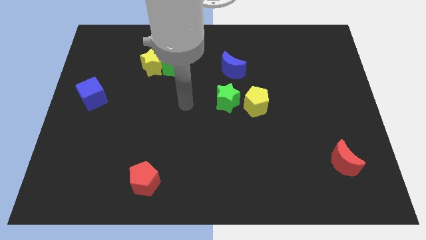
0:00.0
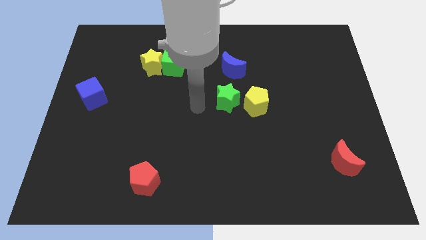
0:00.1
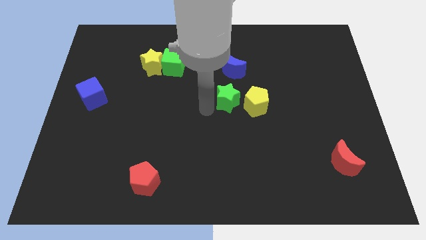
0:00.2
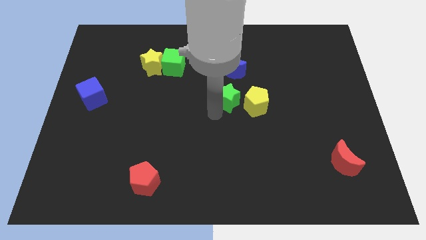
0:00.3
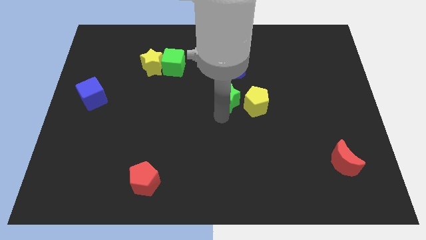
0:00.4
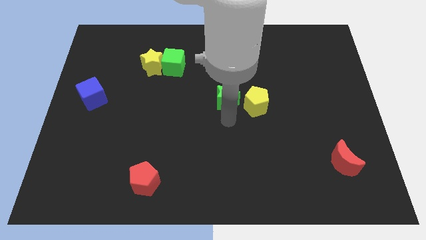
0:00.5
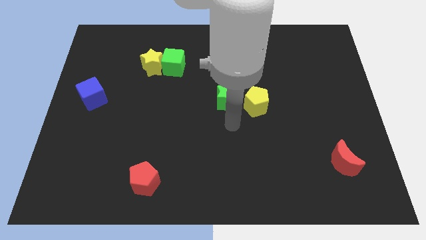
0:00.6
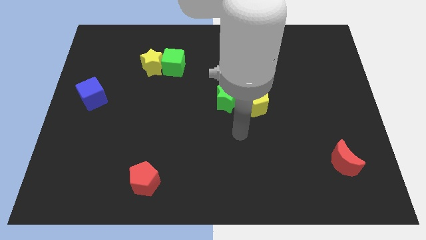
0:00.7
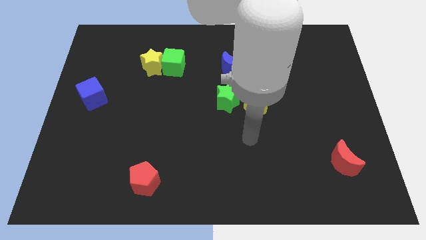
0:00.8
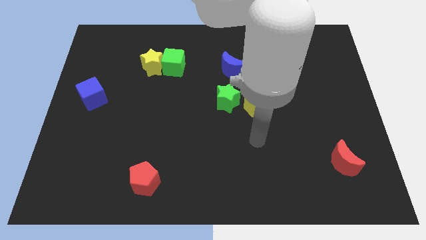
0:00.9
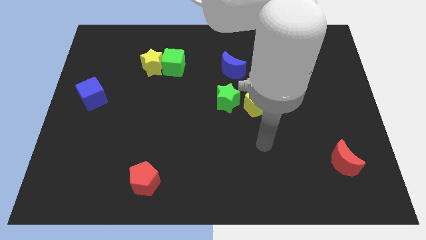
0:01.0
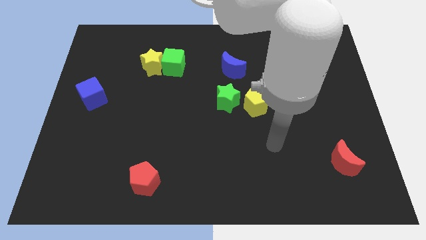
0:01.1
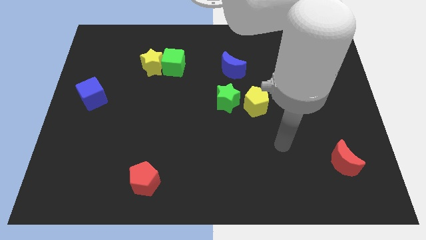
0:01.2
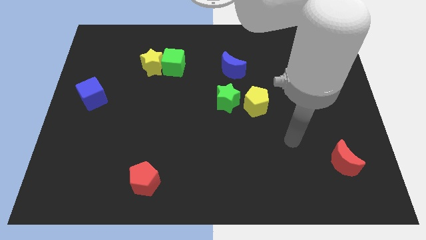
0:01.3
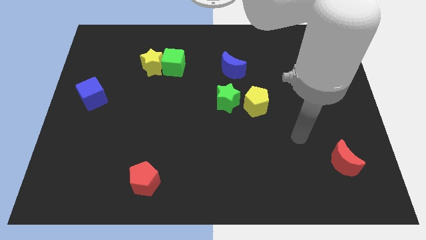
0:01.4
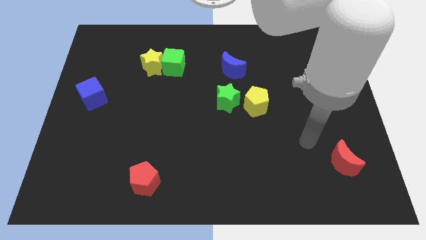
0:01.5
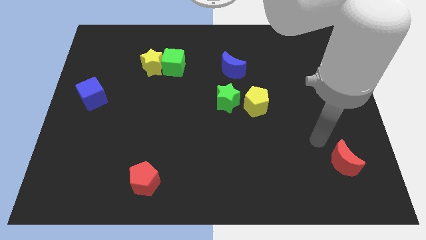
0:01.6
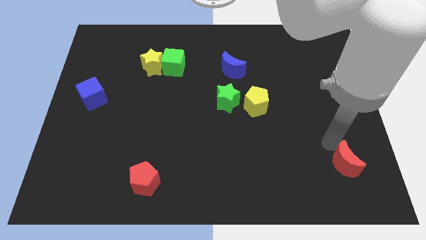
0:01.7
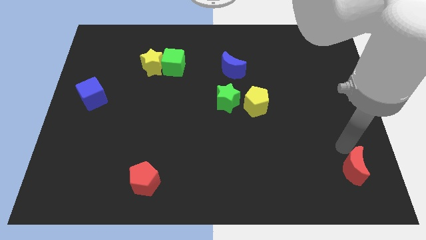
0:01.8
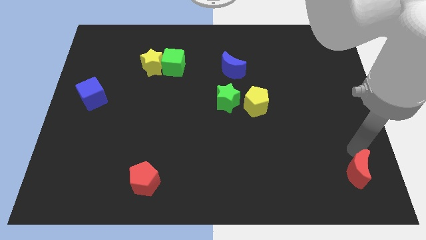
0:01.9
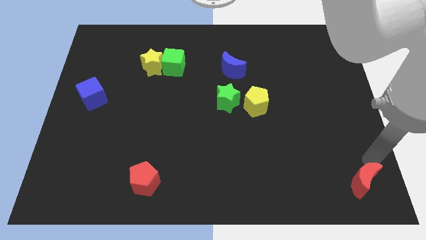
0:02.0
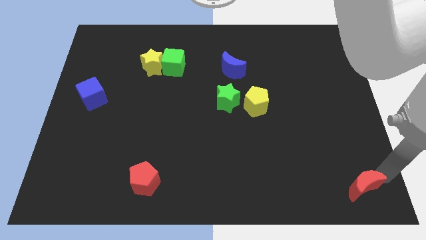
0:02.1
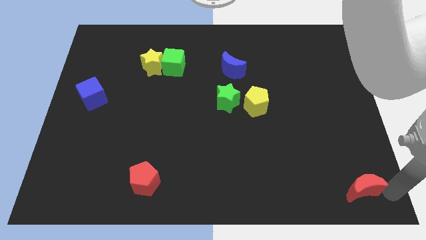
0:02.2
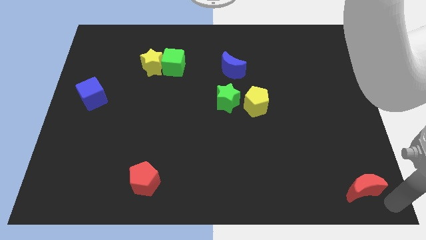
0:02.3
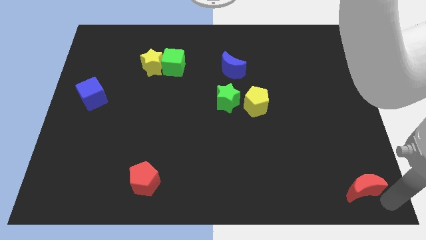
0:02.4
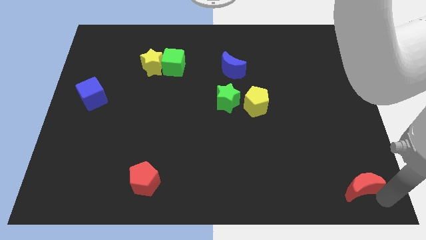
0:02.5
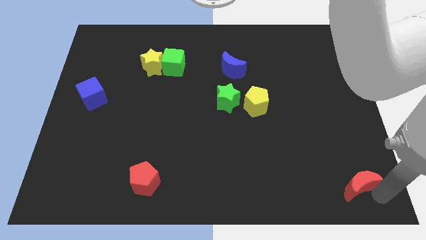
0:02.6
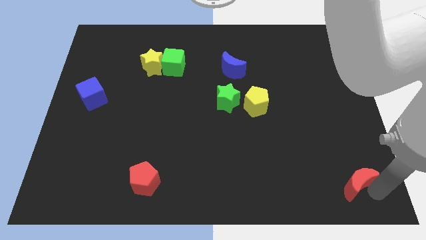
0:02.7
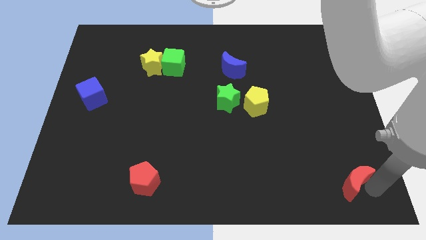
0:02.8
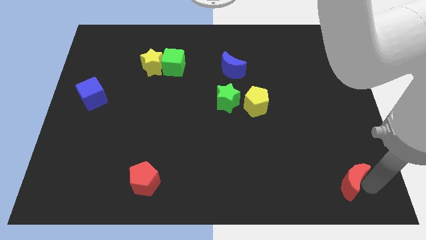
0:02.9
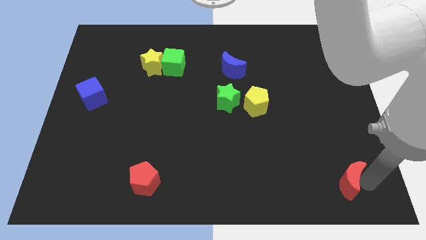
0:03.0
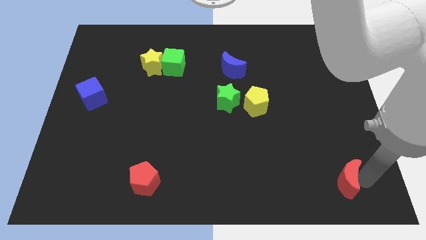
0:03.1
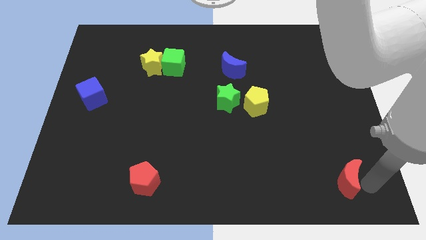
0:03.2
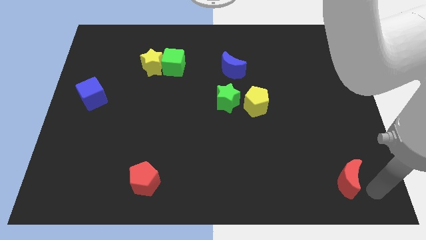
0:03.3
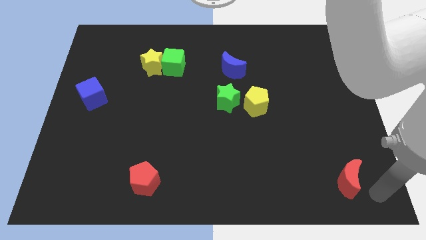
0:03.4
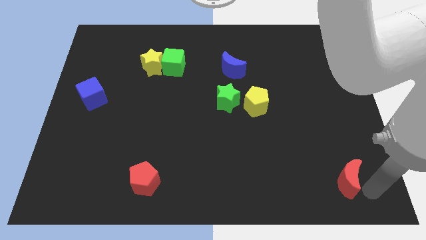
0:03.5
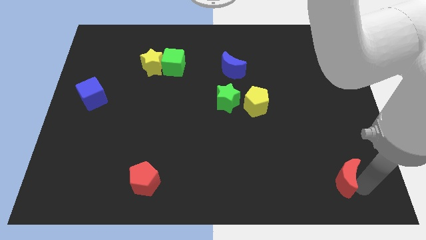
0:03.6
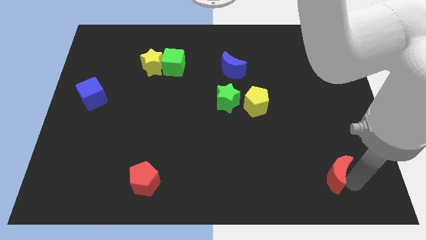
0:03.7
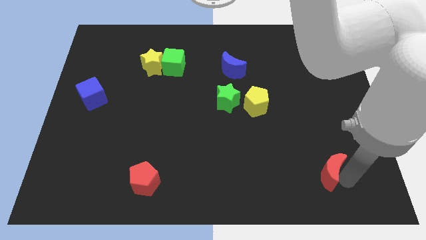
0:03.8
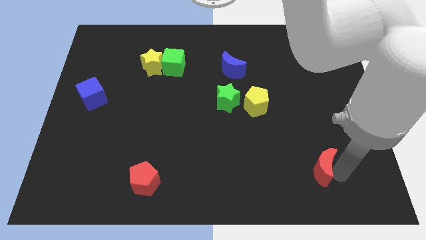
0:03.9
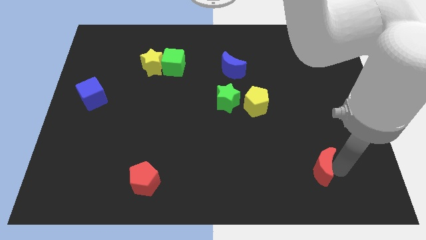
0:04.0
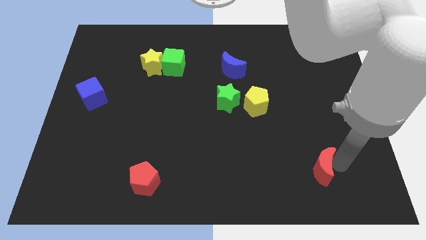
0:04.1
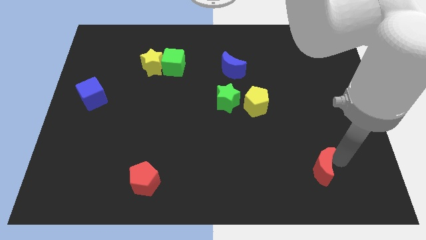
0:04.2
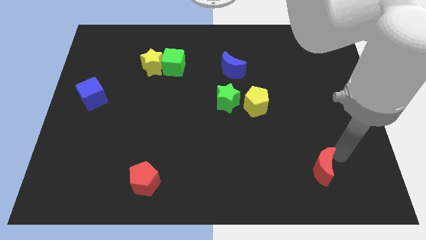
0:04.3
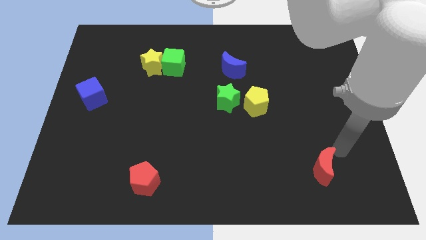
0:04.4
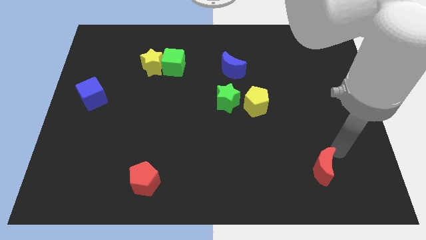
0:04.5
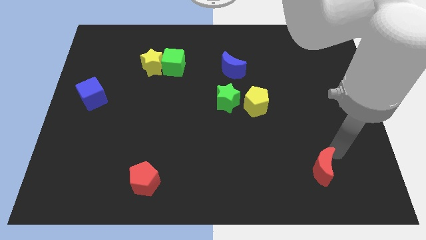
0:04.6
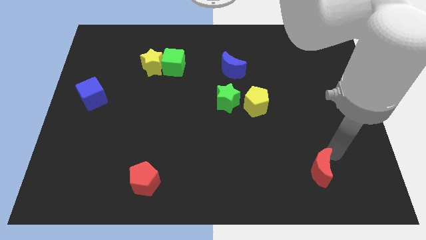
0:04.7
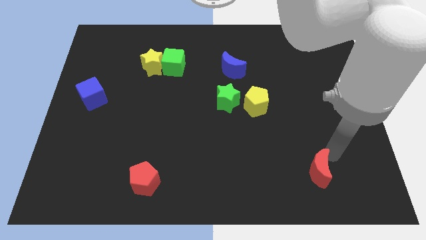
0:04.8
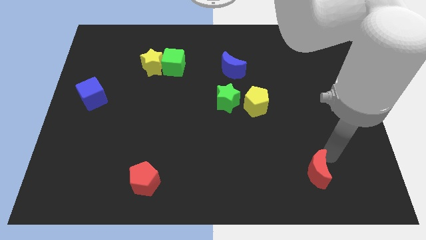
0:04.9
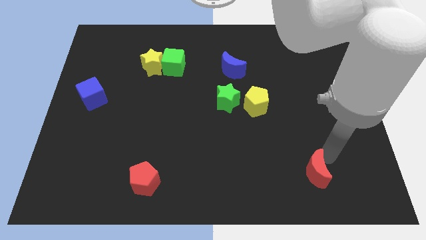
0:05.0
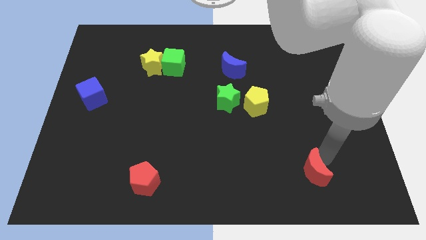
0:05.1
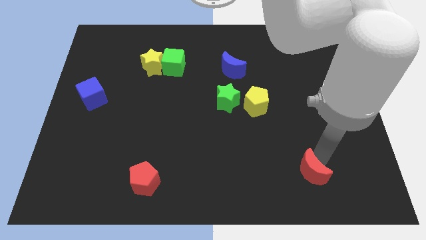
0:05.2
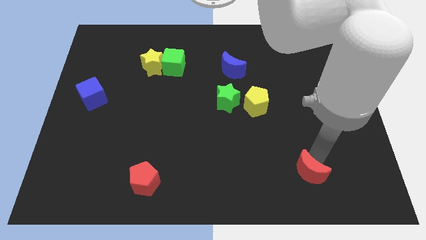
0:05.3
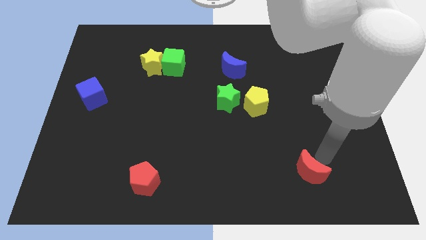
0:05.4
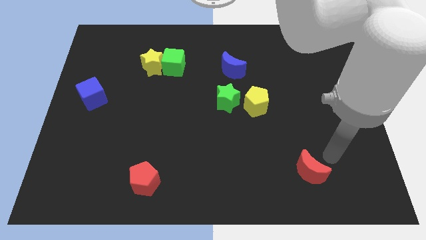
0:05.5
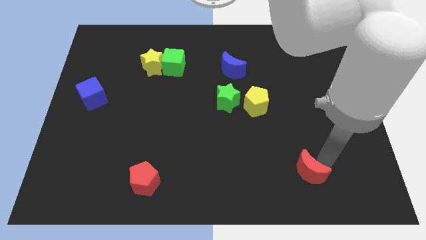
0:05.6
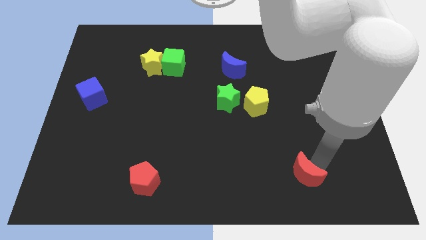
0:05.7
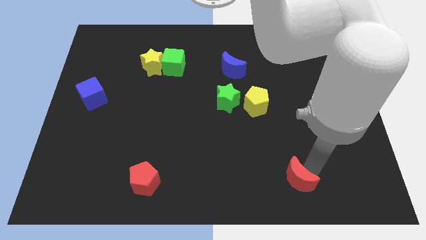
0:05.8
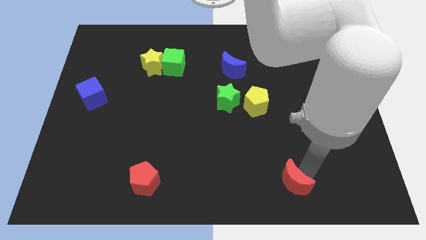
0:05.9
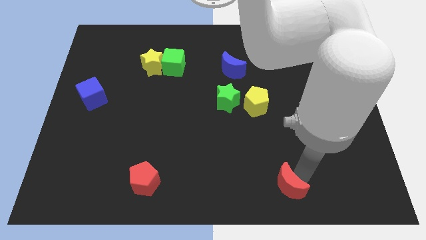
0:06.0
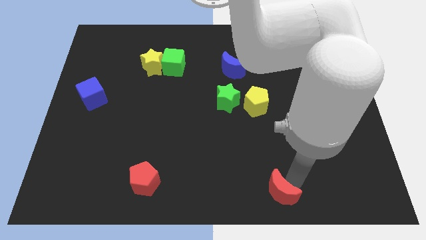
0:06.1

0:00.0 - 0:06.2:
put the red moon to the bottom
